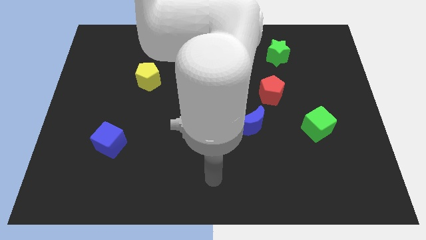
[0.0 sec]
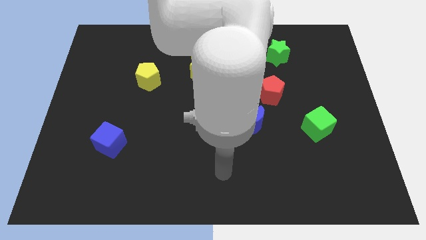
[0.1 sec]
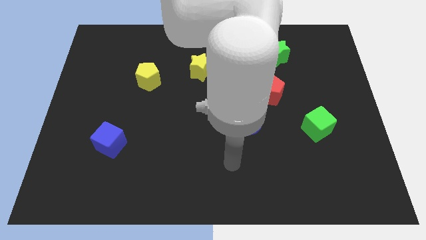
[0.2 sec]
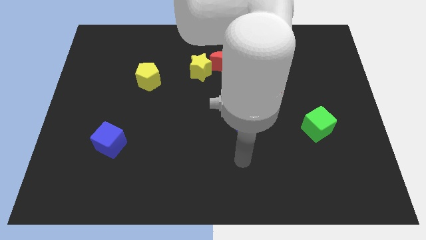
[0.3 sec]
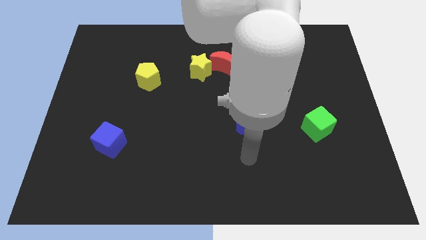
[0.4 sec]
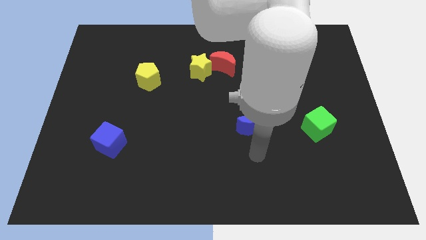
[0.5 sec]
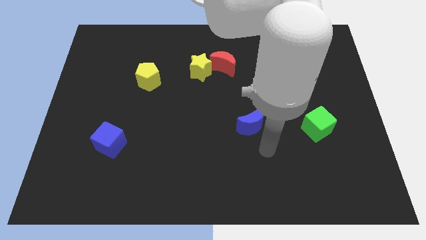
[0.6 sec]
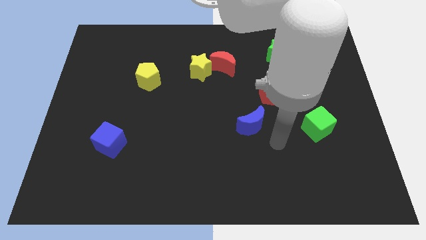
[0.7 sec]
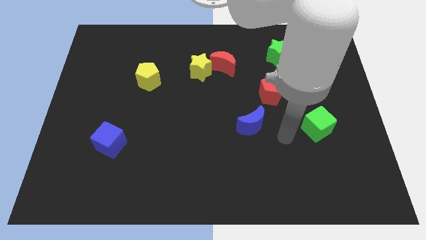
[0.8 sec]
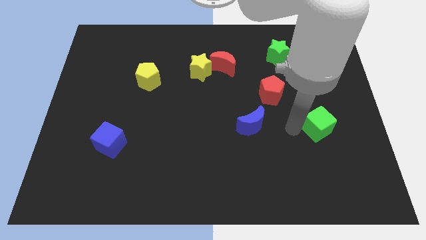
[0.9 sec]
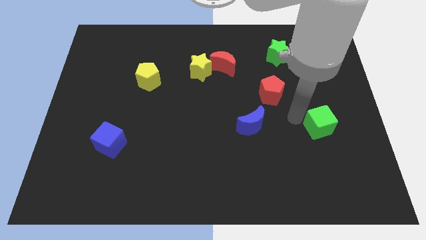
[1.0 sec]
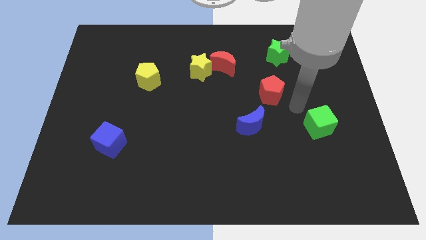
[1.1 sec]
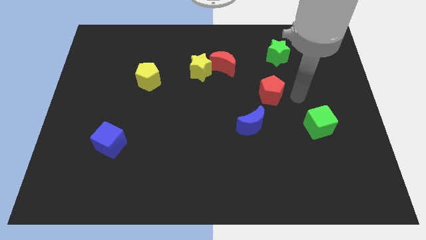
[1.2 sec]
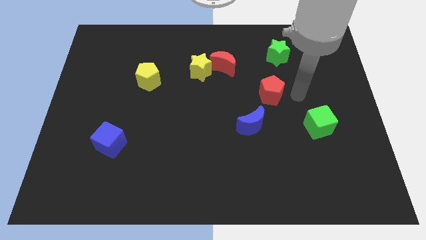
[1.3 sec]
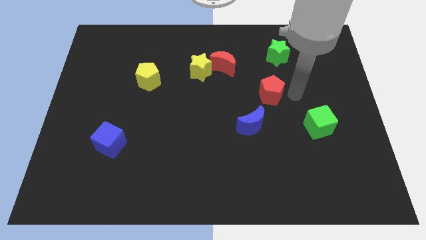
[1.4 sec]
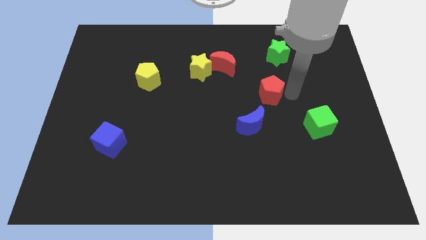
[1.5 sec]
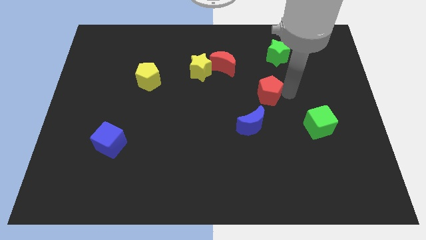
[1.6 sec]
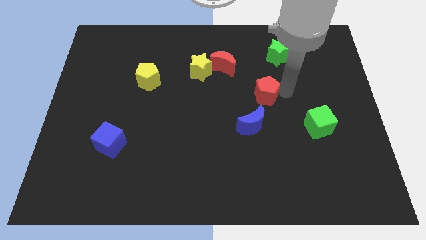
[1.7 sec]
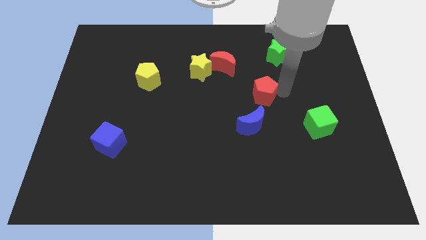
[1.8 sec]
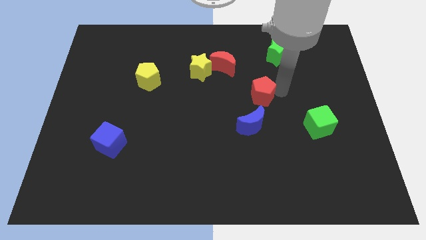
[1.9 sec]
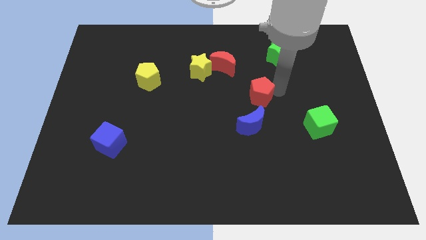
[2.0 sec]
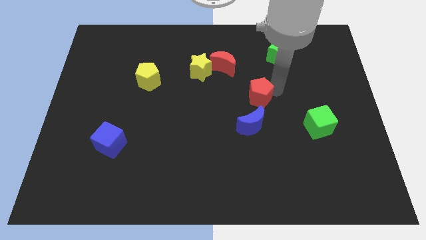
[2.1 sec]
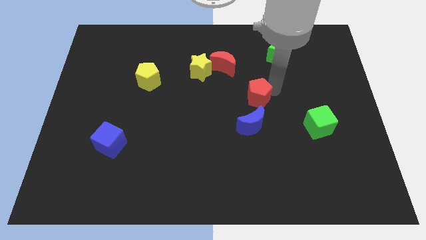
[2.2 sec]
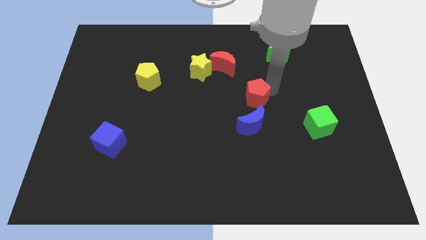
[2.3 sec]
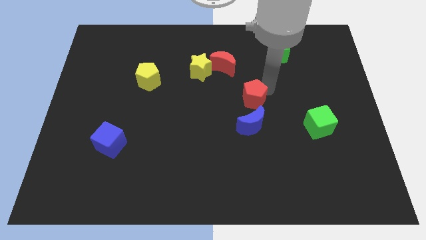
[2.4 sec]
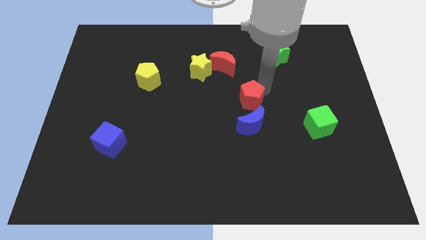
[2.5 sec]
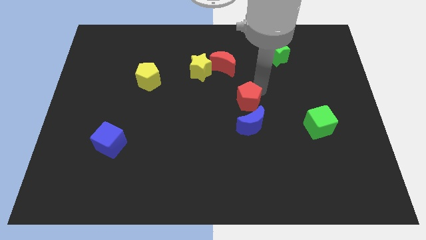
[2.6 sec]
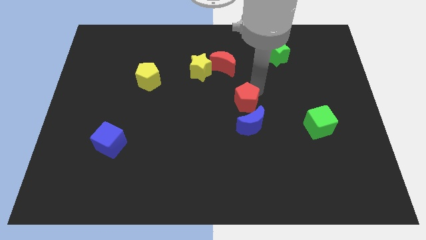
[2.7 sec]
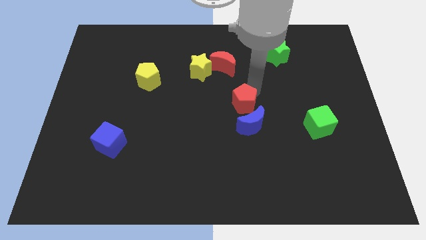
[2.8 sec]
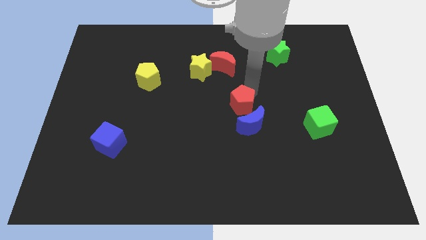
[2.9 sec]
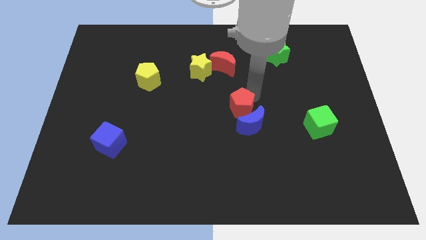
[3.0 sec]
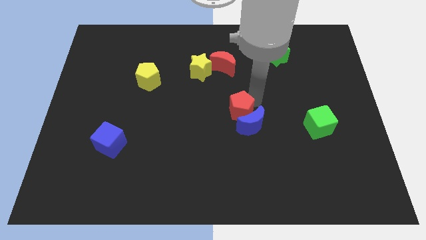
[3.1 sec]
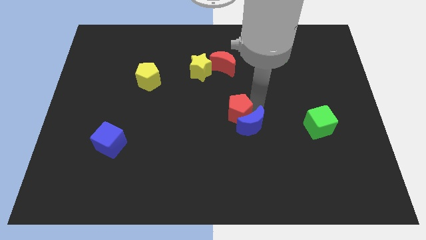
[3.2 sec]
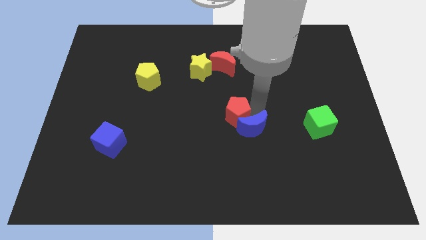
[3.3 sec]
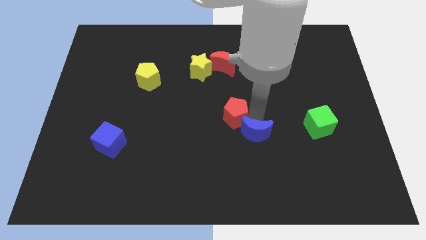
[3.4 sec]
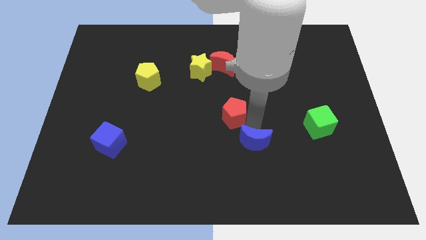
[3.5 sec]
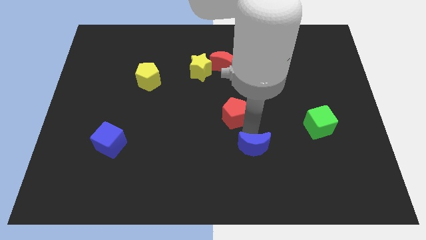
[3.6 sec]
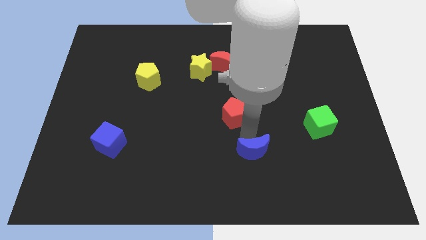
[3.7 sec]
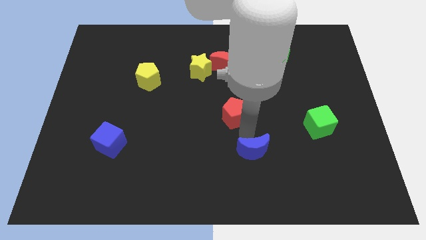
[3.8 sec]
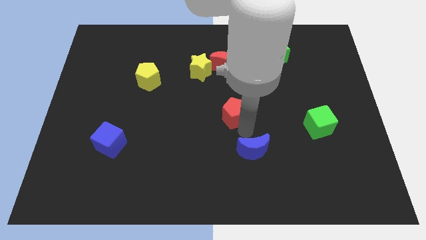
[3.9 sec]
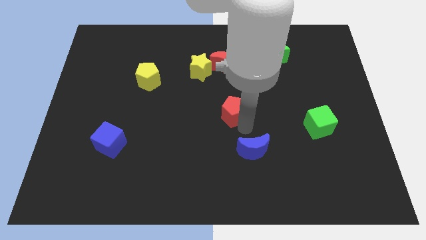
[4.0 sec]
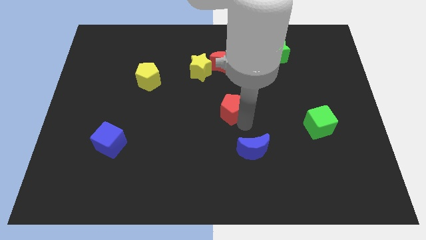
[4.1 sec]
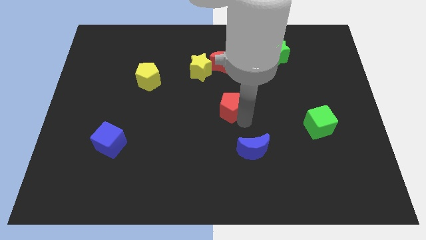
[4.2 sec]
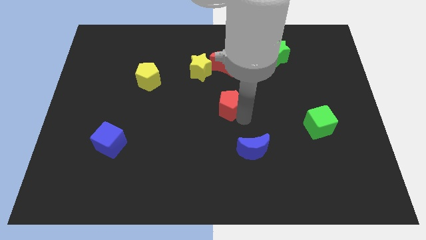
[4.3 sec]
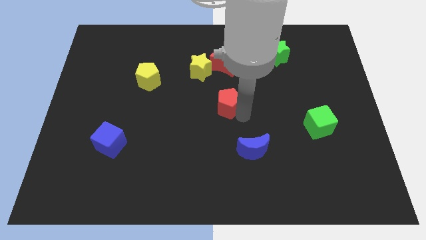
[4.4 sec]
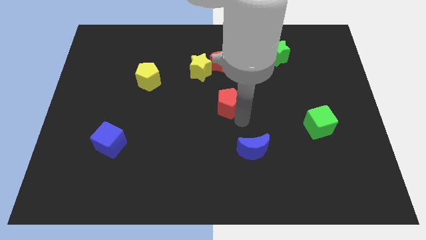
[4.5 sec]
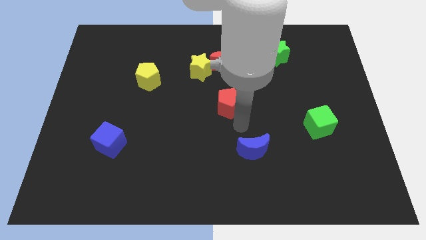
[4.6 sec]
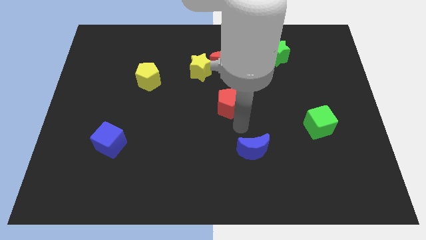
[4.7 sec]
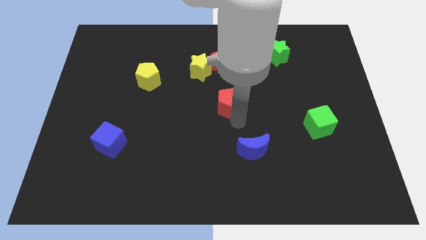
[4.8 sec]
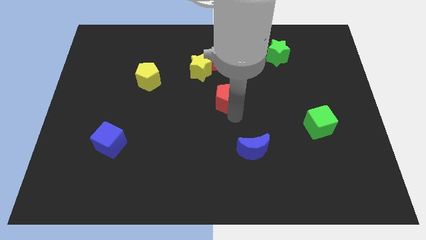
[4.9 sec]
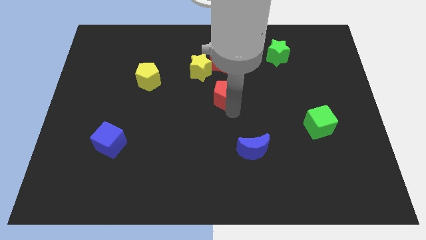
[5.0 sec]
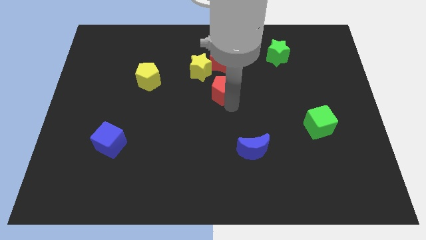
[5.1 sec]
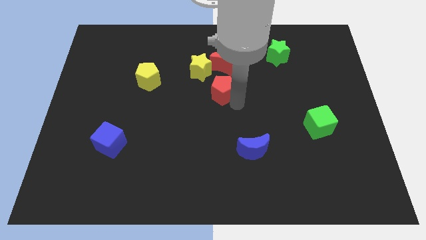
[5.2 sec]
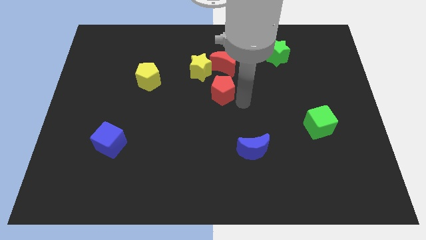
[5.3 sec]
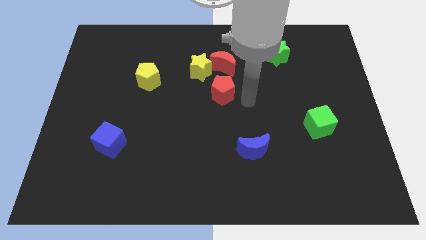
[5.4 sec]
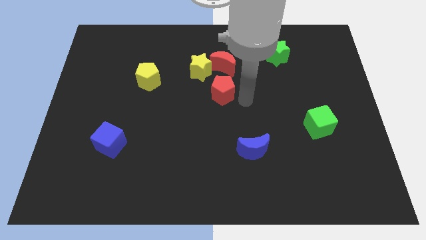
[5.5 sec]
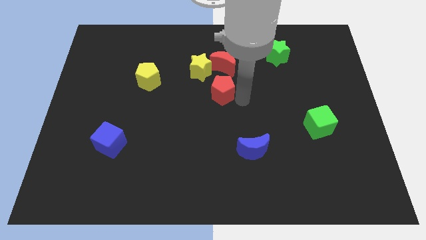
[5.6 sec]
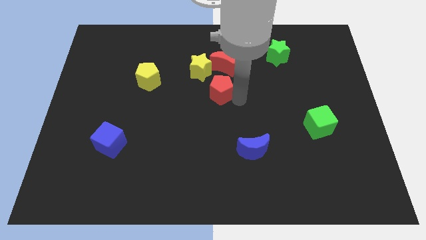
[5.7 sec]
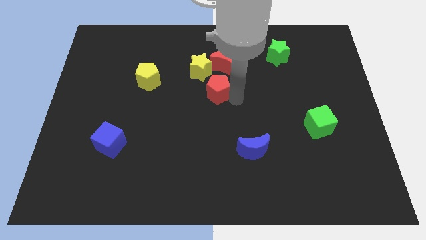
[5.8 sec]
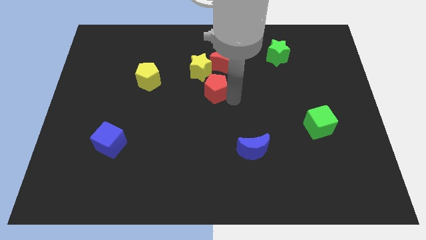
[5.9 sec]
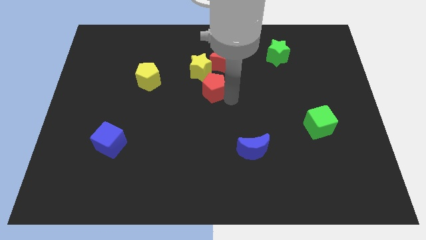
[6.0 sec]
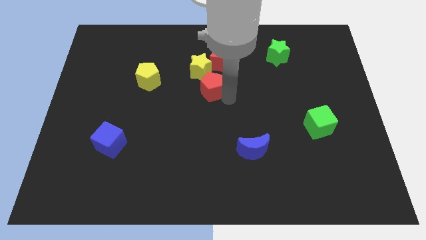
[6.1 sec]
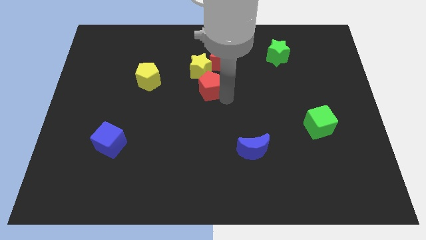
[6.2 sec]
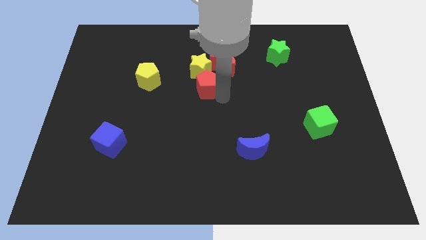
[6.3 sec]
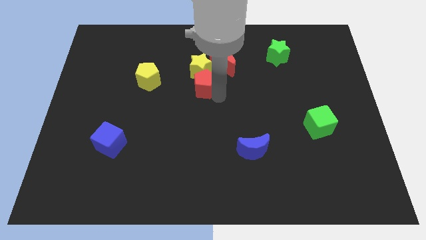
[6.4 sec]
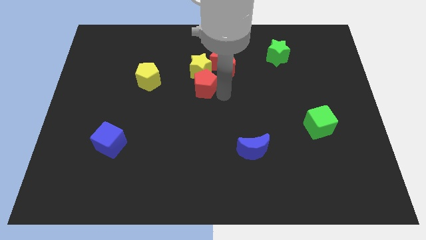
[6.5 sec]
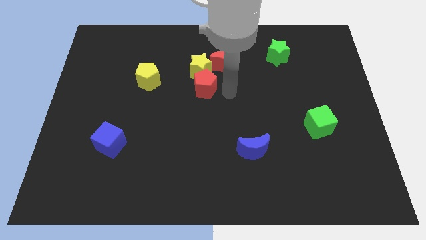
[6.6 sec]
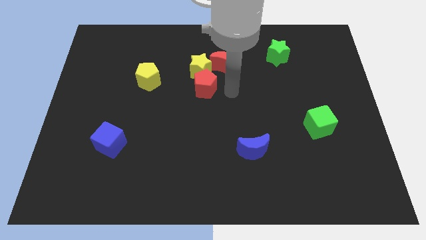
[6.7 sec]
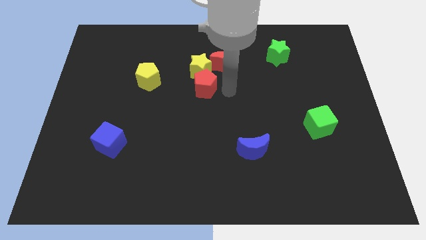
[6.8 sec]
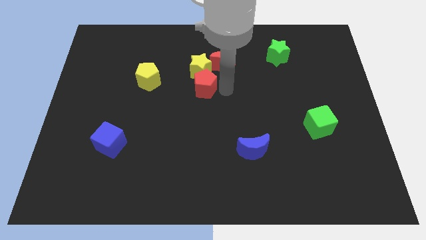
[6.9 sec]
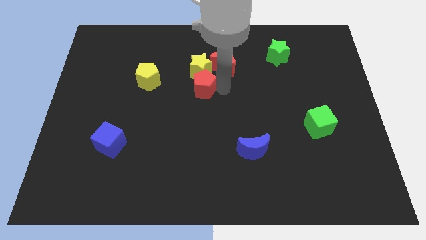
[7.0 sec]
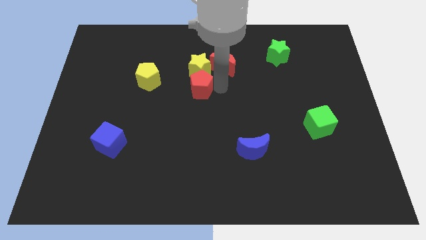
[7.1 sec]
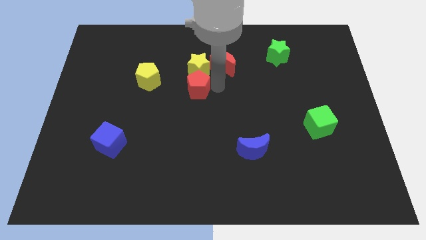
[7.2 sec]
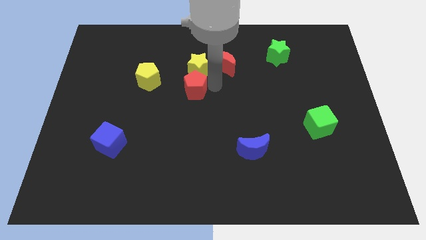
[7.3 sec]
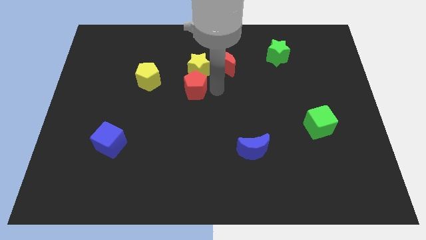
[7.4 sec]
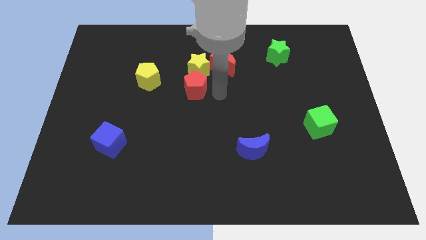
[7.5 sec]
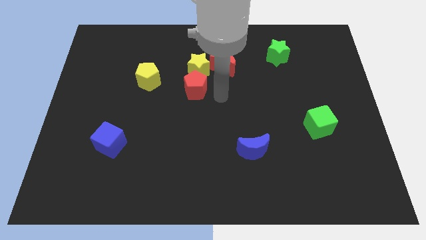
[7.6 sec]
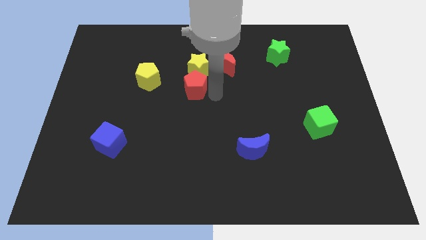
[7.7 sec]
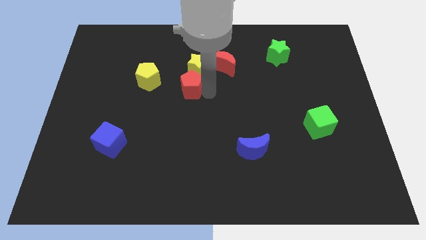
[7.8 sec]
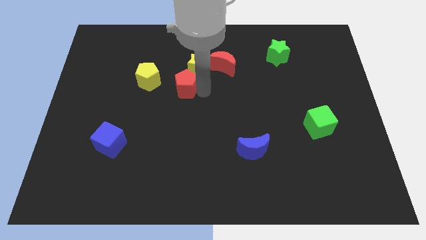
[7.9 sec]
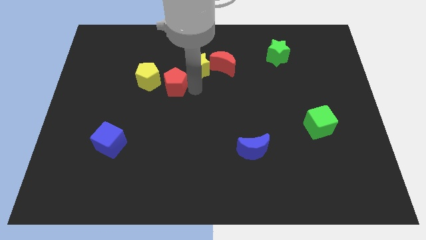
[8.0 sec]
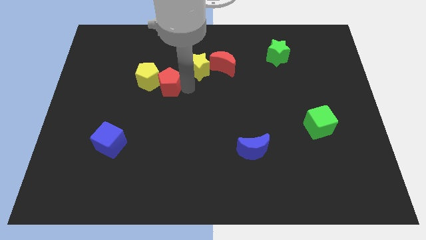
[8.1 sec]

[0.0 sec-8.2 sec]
slide the red pentagon close to the yellow pentagon
